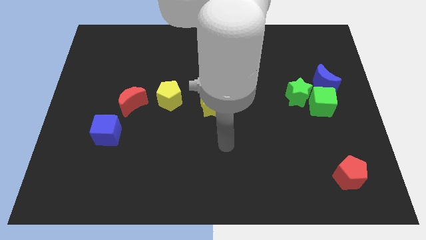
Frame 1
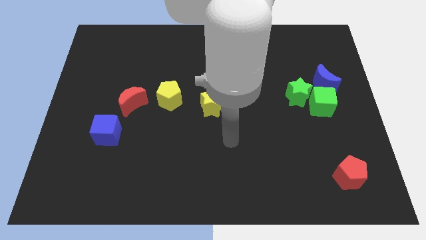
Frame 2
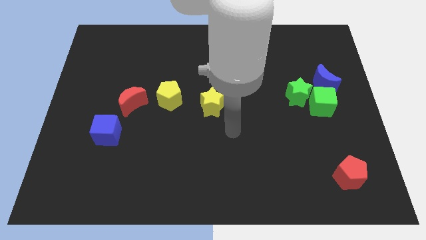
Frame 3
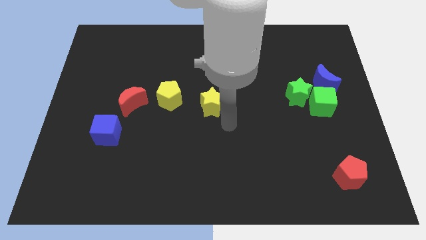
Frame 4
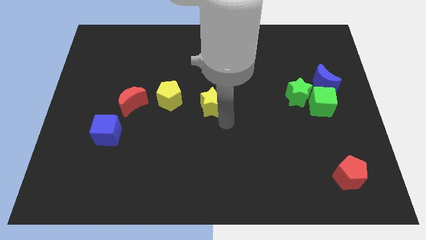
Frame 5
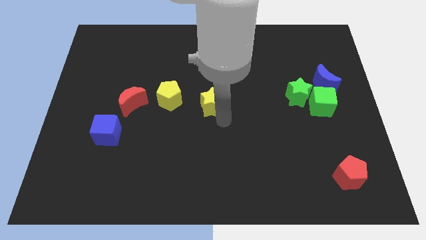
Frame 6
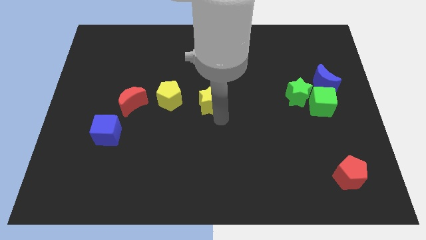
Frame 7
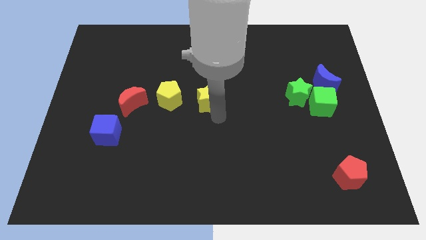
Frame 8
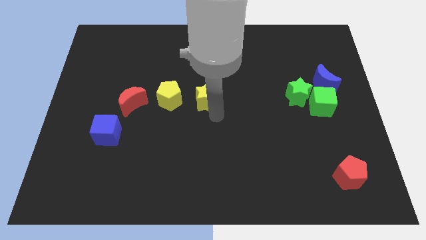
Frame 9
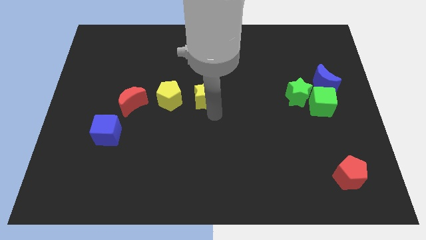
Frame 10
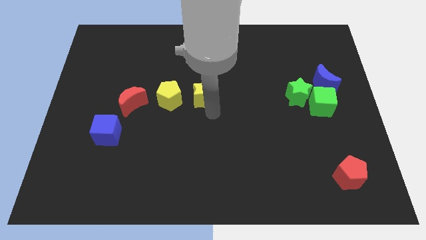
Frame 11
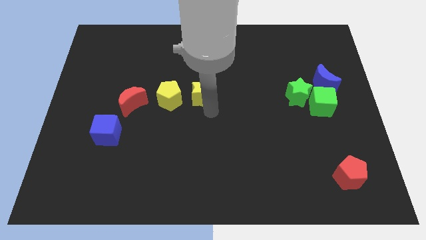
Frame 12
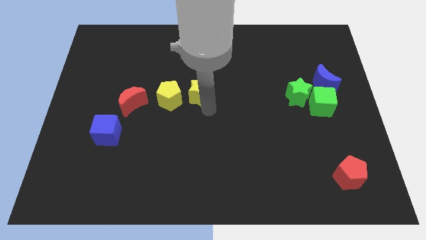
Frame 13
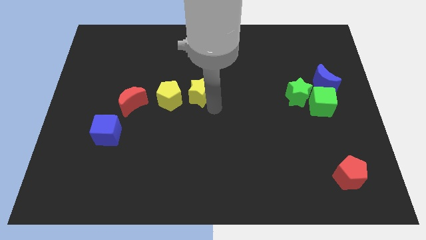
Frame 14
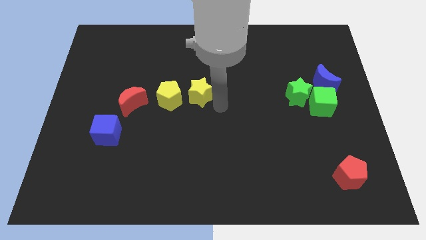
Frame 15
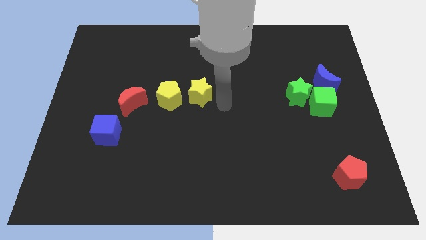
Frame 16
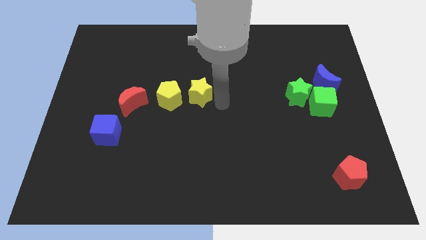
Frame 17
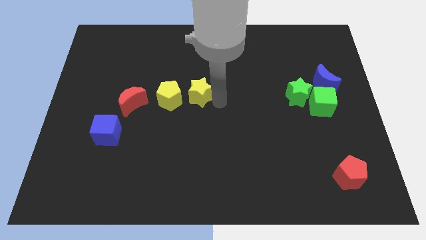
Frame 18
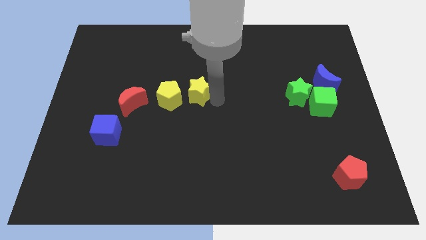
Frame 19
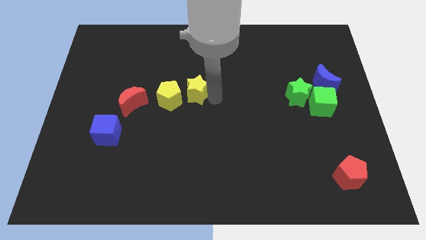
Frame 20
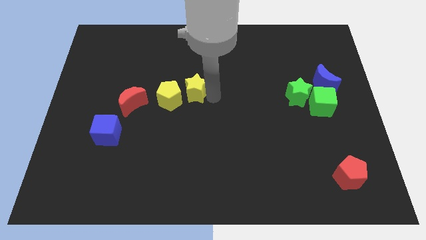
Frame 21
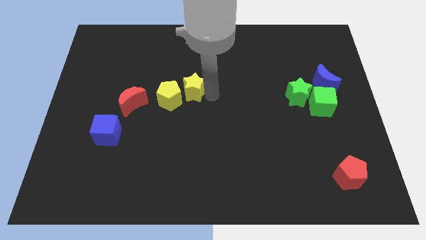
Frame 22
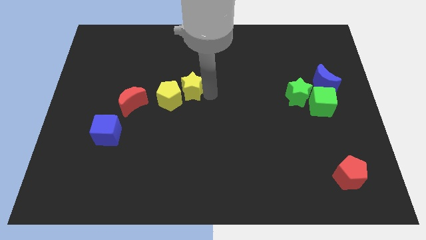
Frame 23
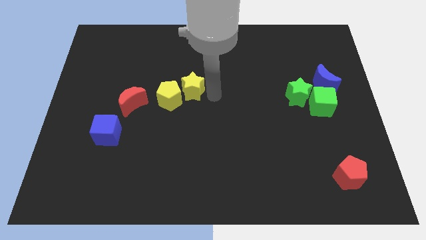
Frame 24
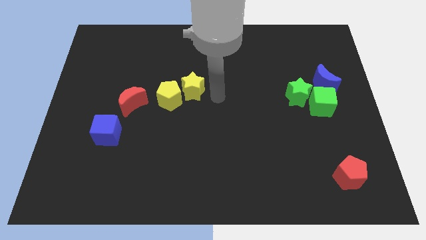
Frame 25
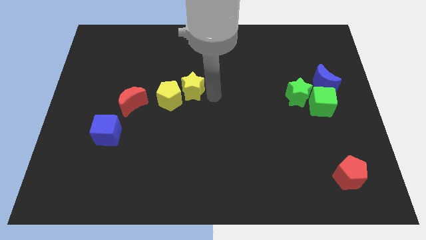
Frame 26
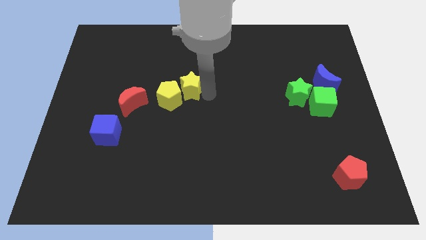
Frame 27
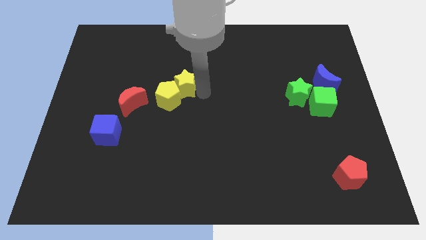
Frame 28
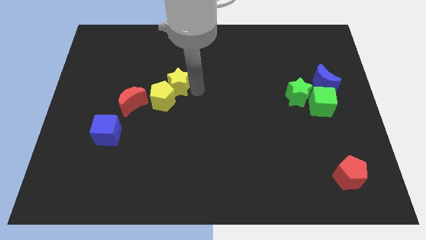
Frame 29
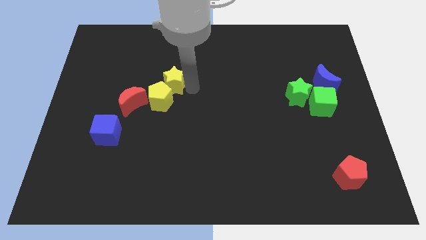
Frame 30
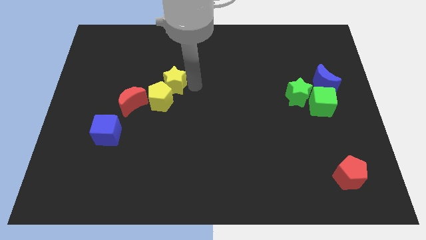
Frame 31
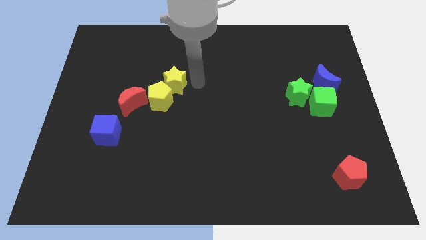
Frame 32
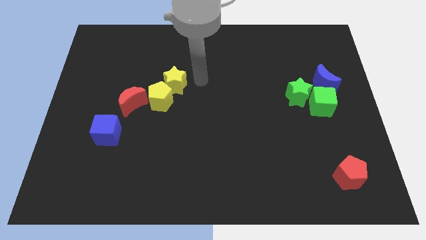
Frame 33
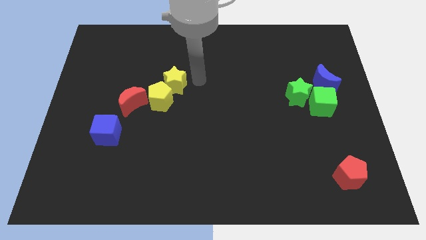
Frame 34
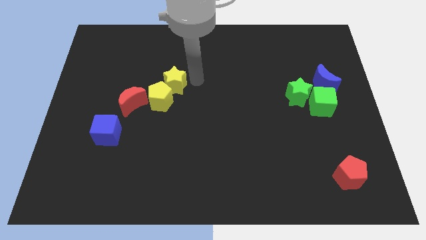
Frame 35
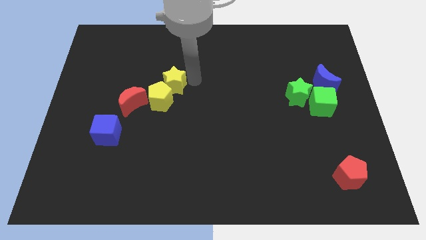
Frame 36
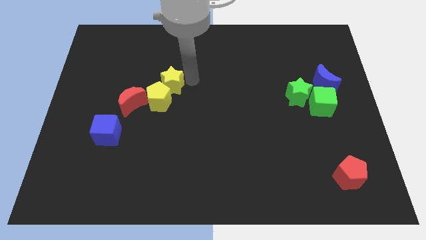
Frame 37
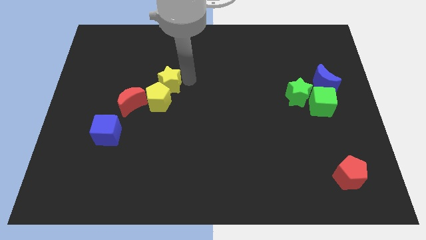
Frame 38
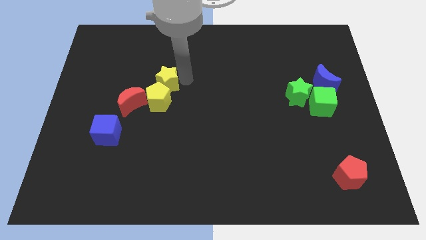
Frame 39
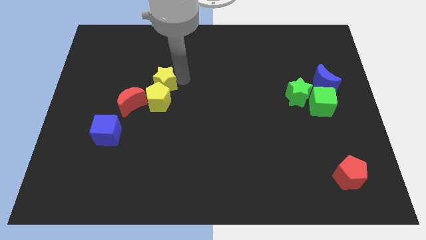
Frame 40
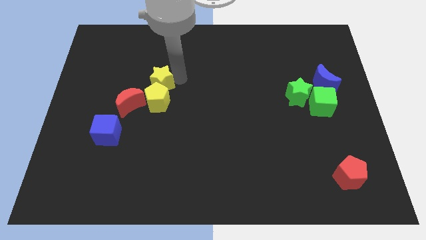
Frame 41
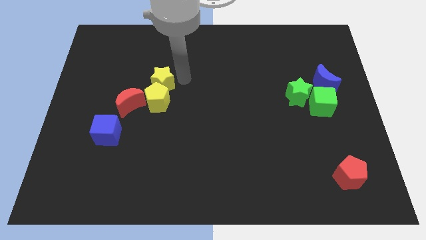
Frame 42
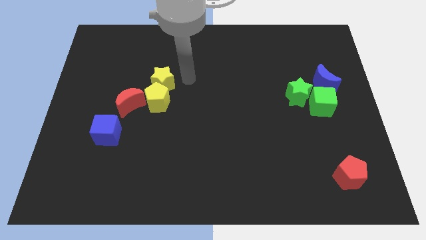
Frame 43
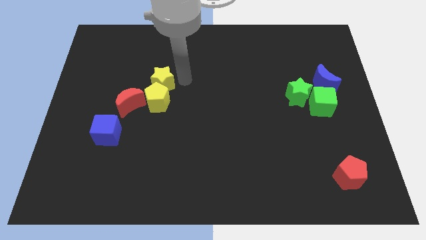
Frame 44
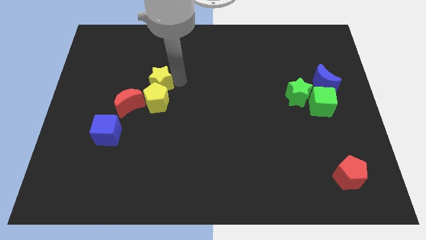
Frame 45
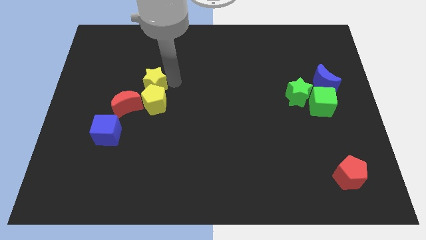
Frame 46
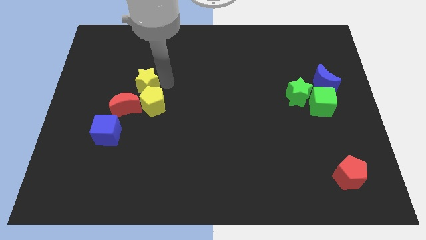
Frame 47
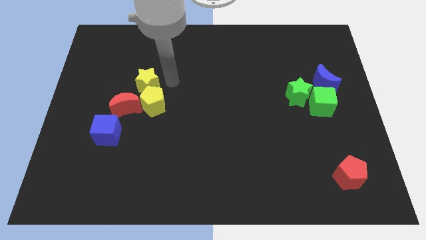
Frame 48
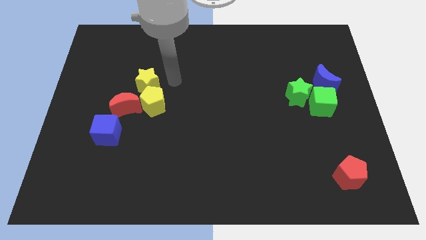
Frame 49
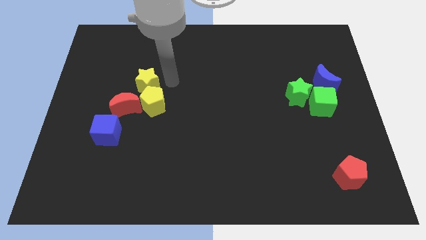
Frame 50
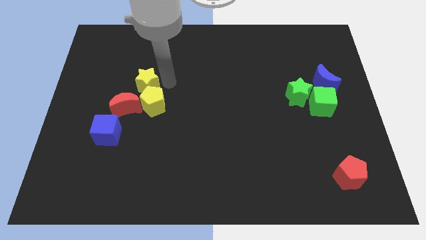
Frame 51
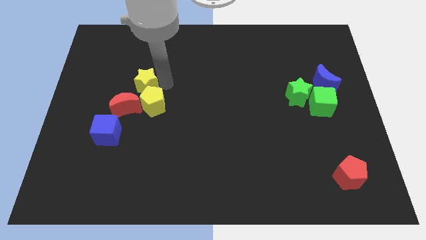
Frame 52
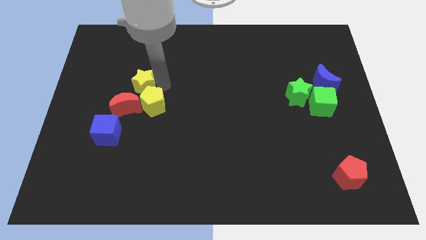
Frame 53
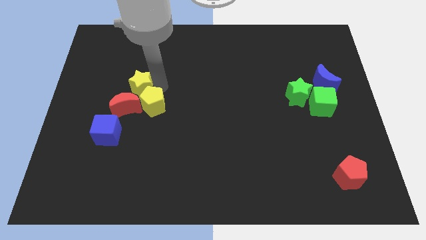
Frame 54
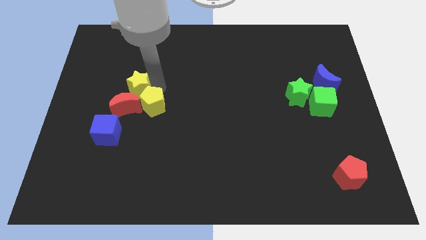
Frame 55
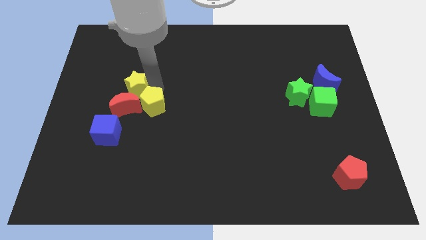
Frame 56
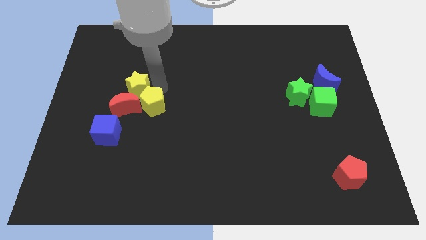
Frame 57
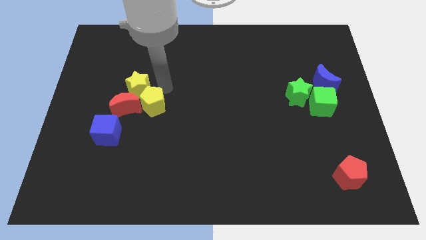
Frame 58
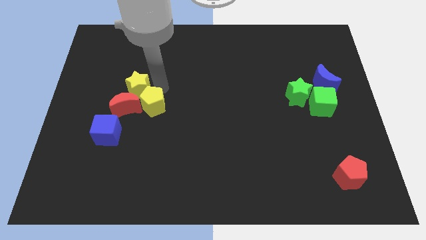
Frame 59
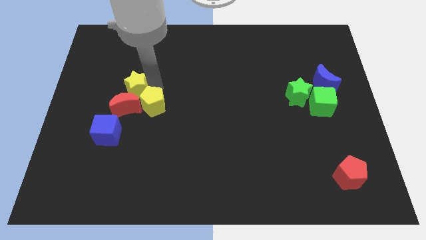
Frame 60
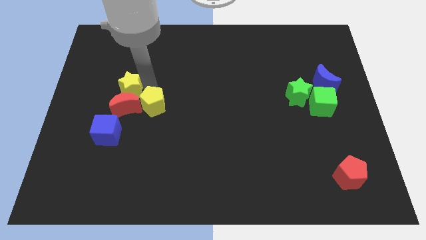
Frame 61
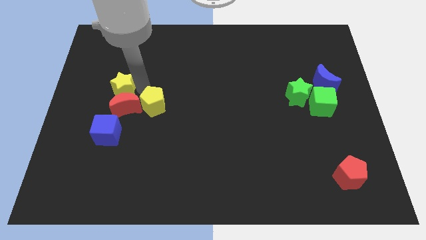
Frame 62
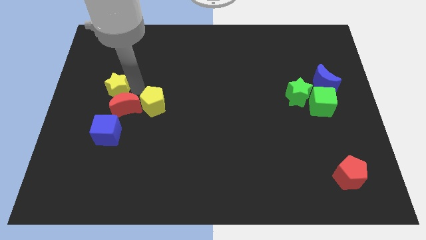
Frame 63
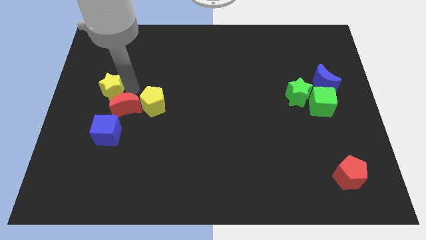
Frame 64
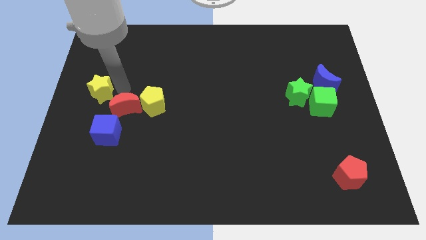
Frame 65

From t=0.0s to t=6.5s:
move the yellow star to the left side of the board

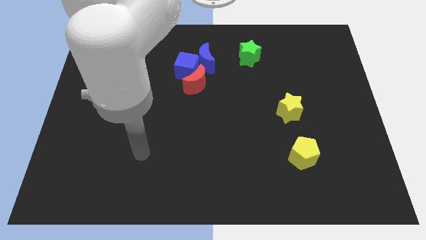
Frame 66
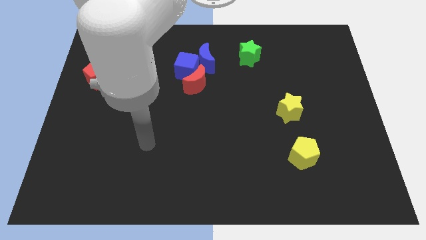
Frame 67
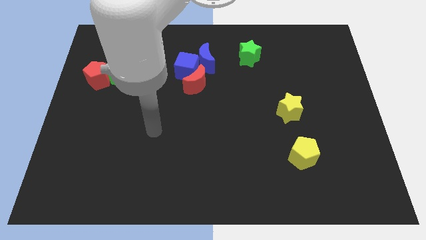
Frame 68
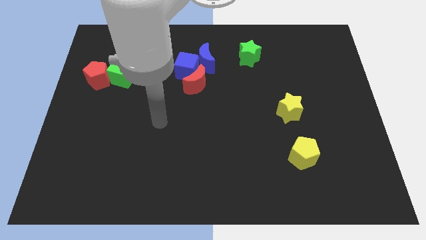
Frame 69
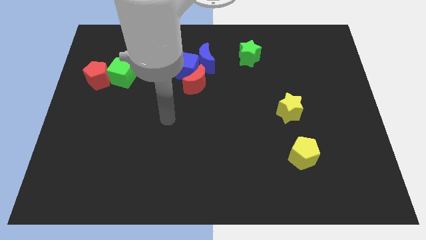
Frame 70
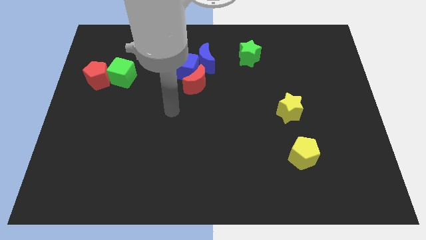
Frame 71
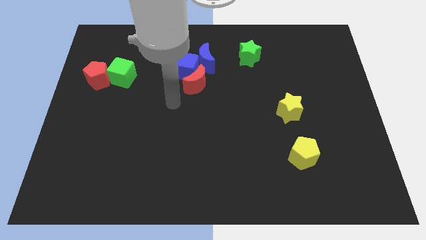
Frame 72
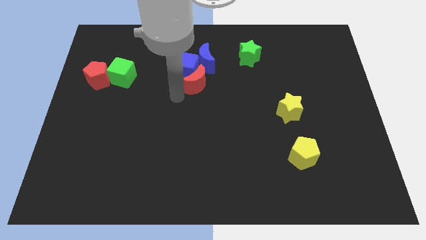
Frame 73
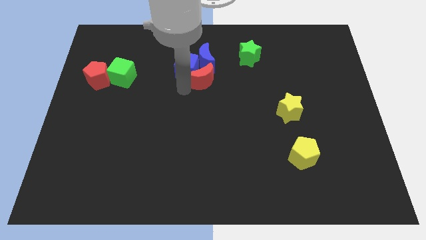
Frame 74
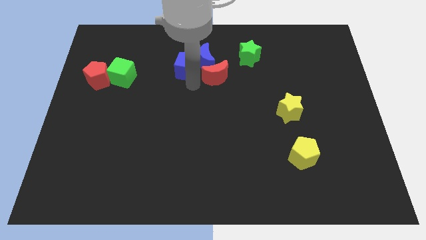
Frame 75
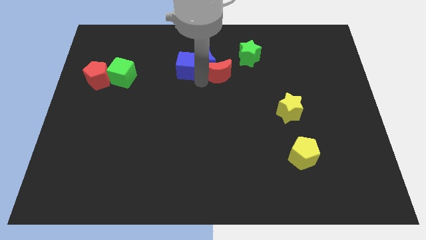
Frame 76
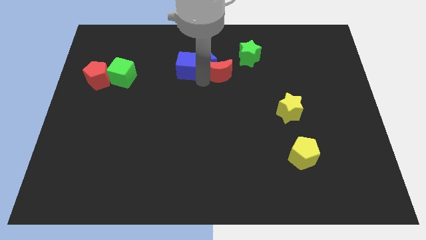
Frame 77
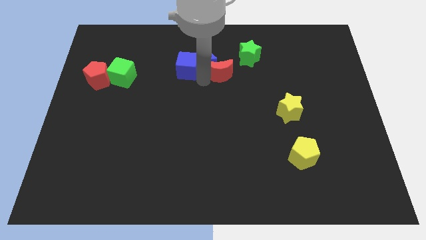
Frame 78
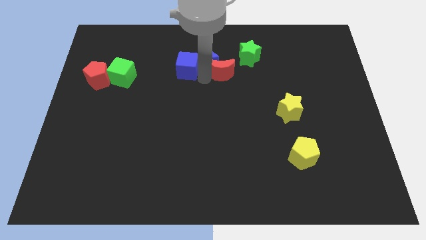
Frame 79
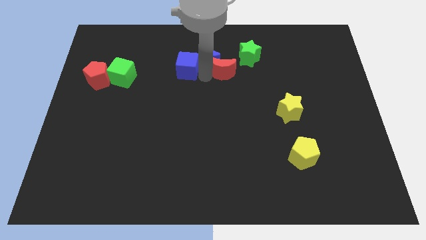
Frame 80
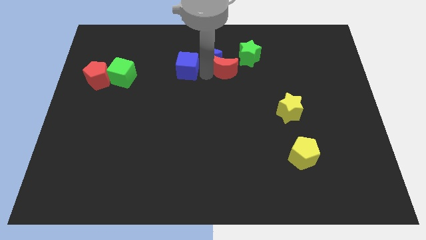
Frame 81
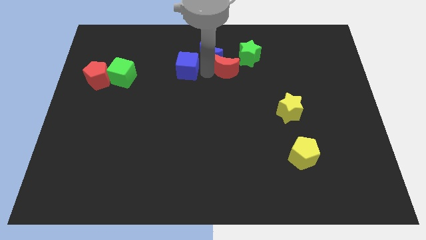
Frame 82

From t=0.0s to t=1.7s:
push the blue moon to the towards your base
